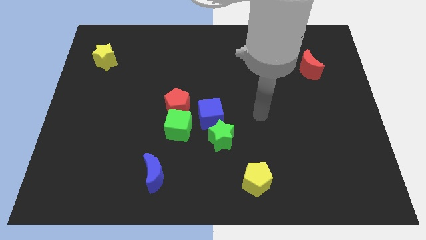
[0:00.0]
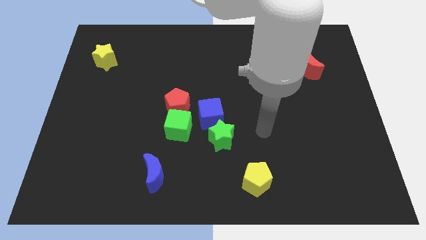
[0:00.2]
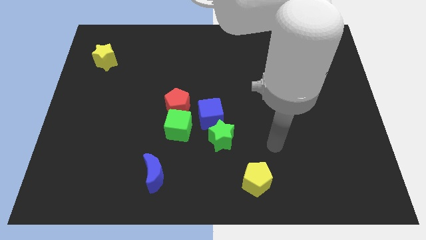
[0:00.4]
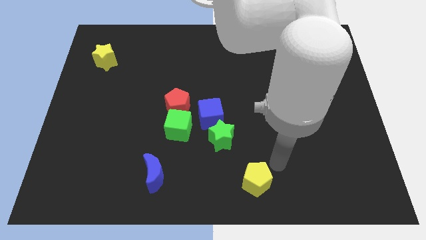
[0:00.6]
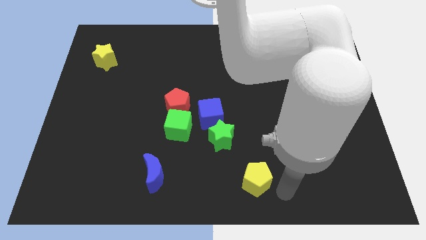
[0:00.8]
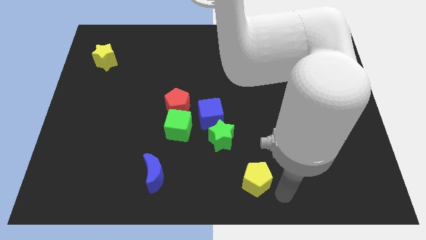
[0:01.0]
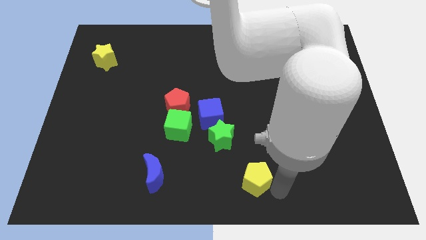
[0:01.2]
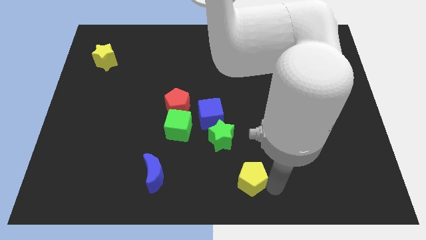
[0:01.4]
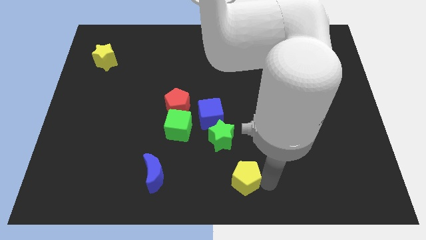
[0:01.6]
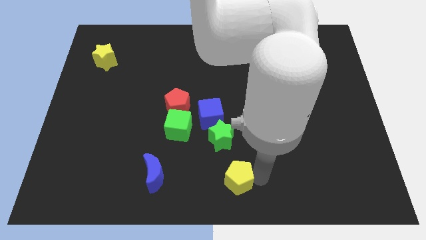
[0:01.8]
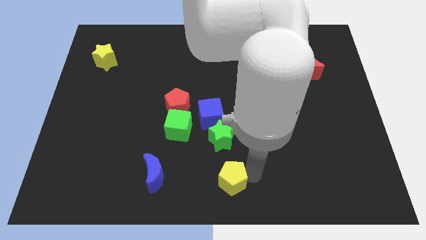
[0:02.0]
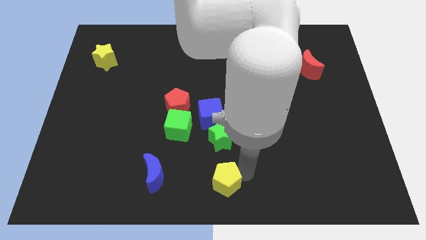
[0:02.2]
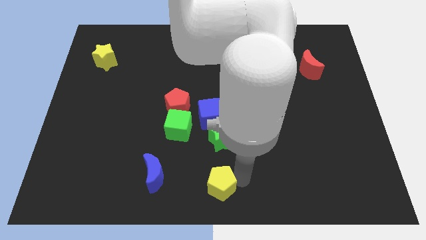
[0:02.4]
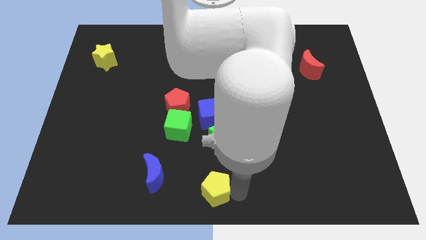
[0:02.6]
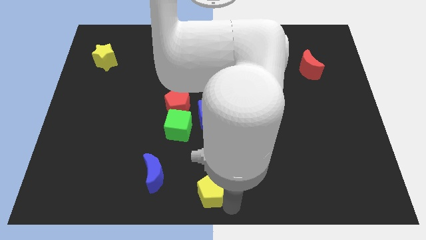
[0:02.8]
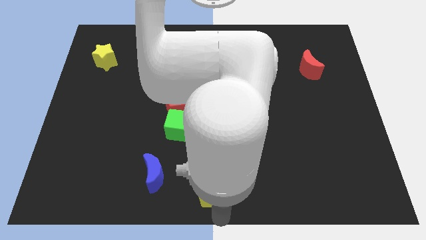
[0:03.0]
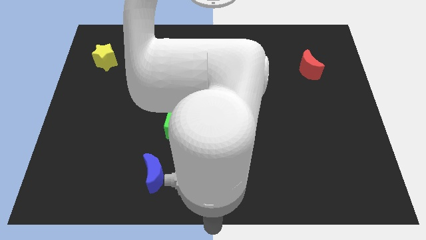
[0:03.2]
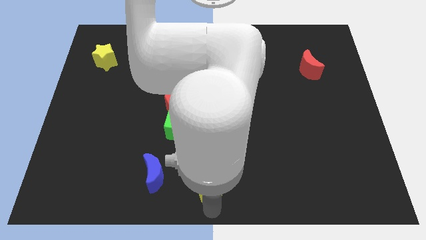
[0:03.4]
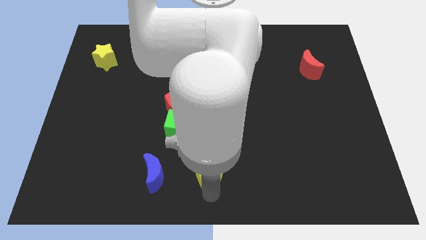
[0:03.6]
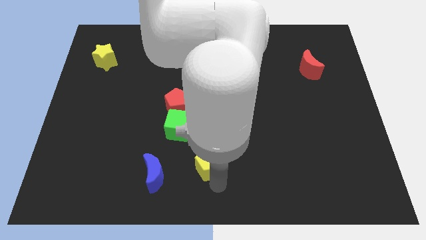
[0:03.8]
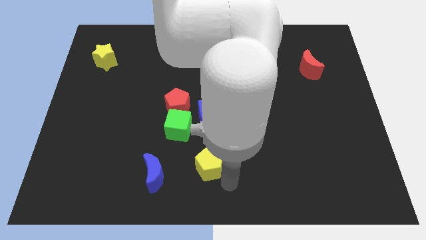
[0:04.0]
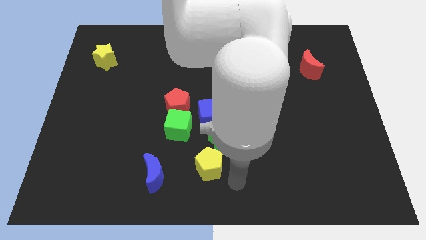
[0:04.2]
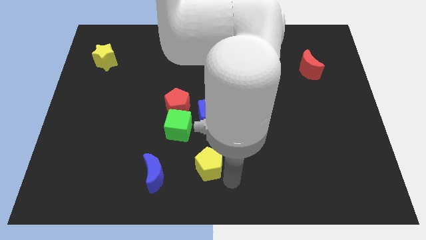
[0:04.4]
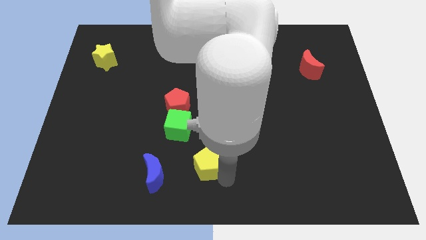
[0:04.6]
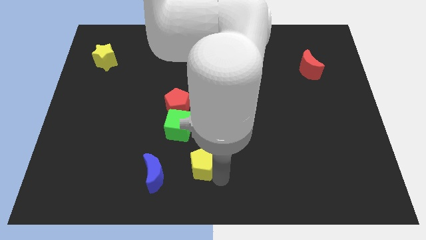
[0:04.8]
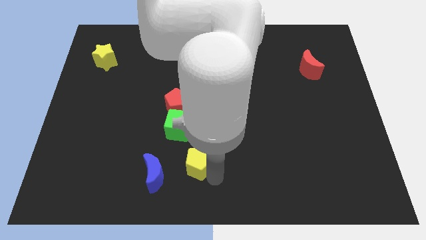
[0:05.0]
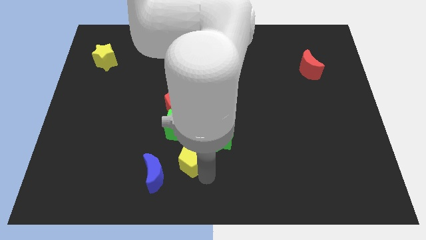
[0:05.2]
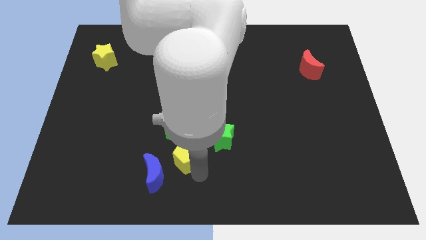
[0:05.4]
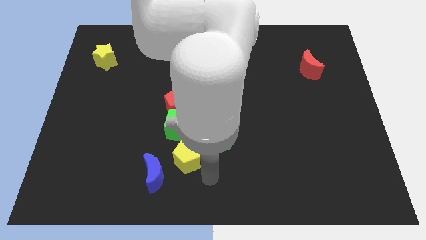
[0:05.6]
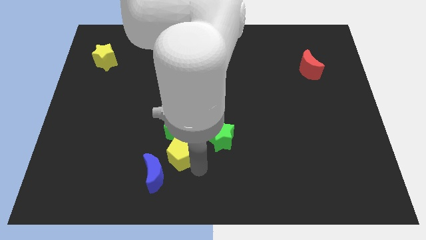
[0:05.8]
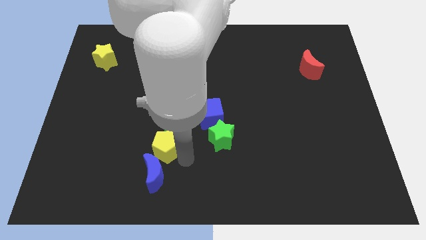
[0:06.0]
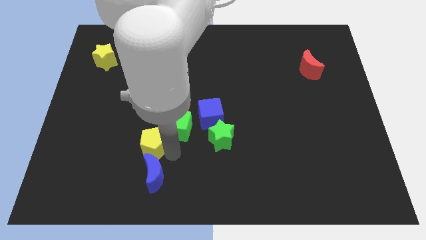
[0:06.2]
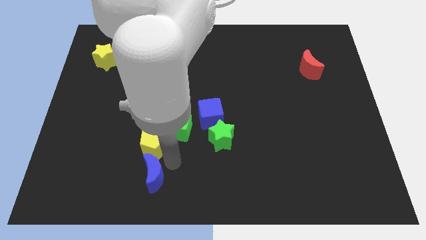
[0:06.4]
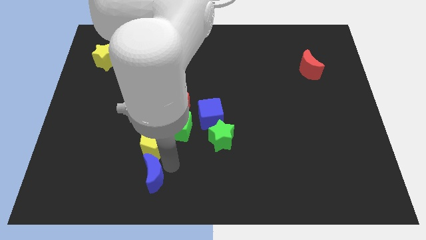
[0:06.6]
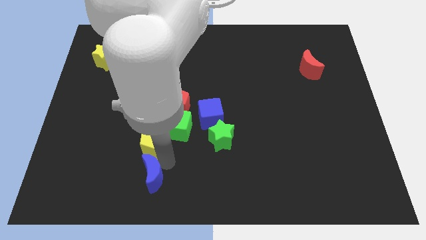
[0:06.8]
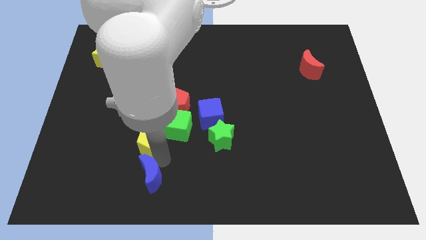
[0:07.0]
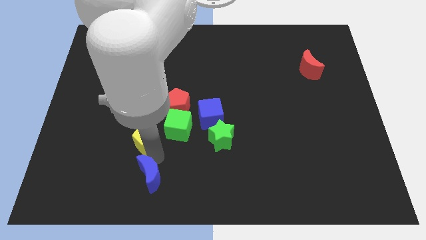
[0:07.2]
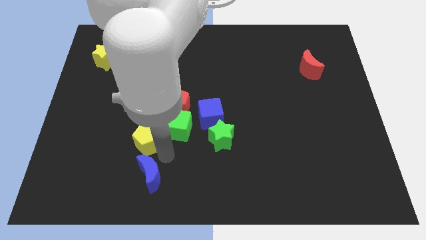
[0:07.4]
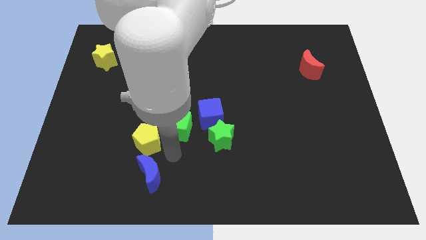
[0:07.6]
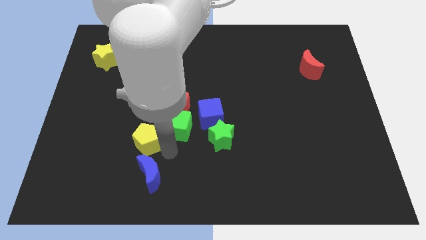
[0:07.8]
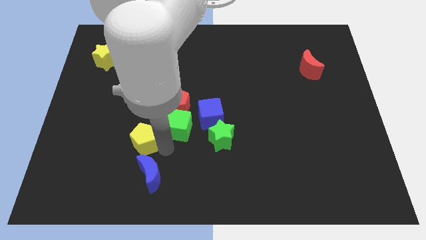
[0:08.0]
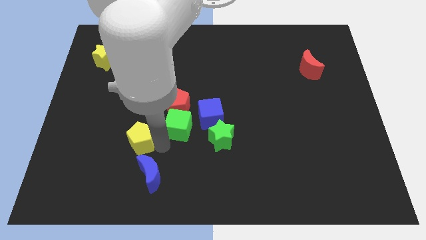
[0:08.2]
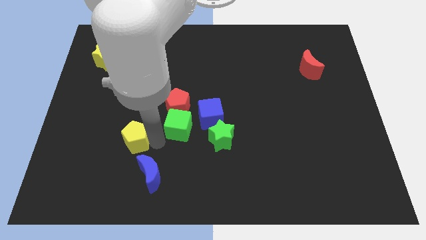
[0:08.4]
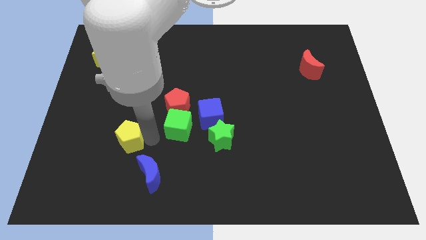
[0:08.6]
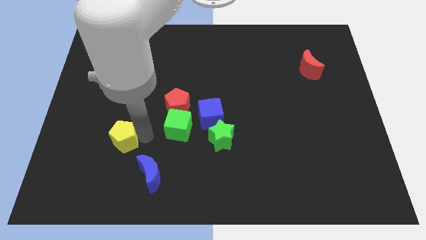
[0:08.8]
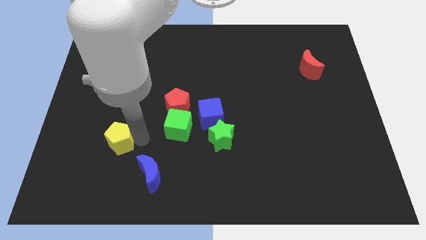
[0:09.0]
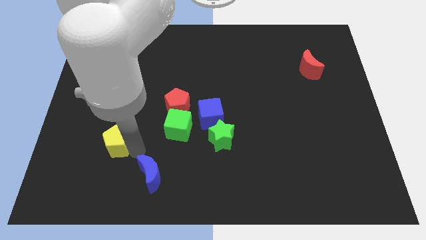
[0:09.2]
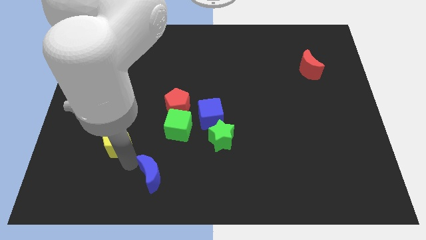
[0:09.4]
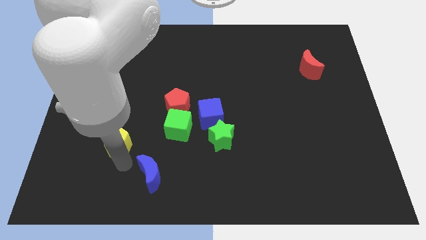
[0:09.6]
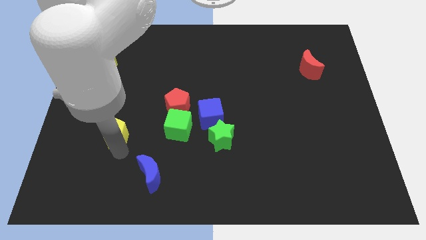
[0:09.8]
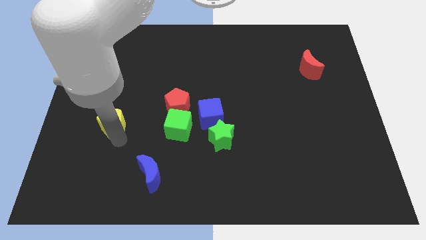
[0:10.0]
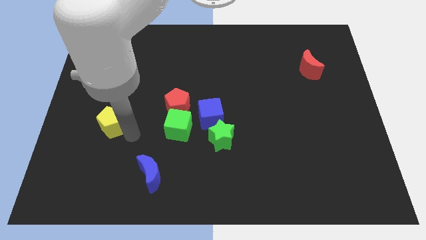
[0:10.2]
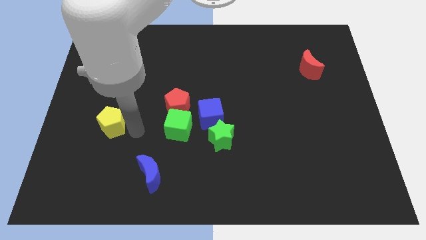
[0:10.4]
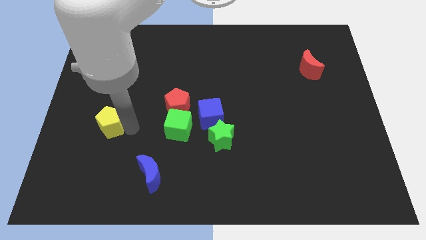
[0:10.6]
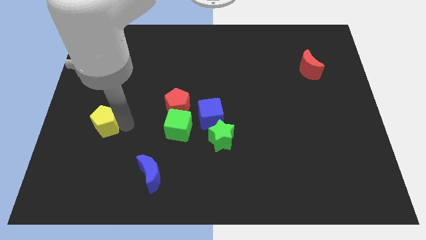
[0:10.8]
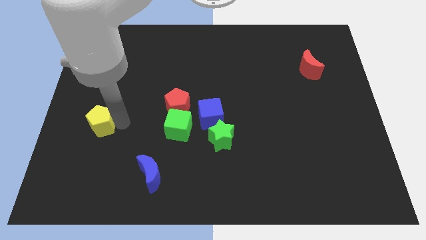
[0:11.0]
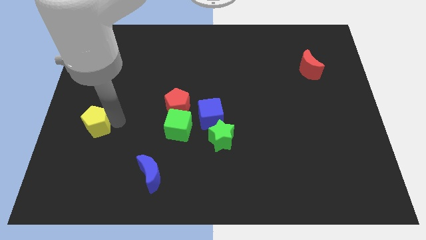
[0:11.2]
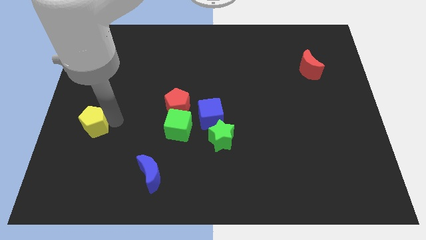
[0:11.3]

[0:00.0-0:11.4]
push the yellow pentagon to the center left

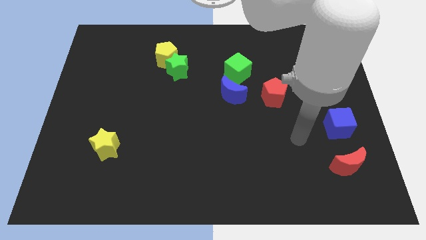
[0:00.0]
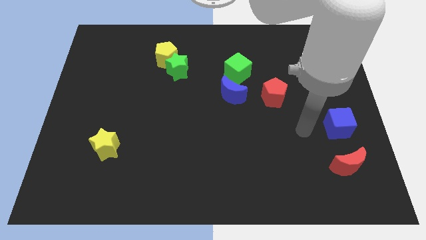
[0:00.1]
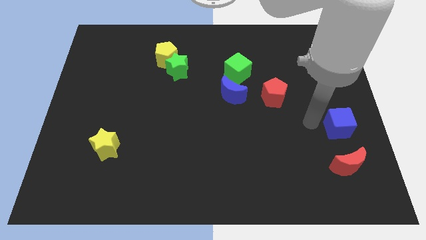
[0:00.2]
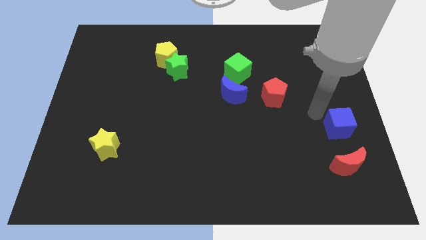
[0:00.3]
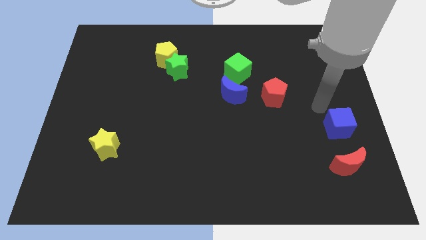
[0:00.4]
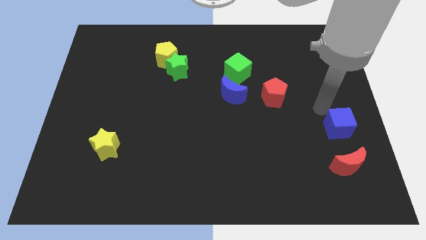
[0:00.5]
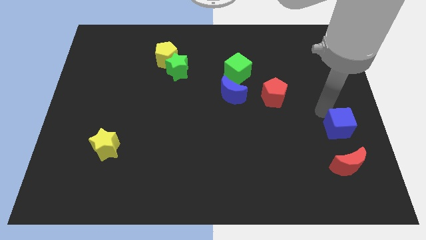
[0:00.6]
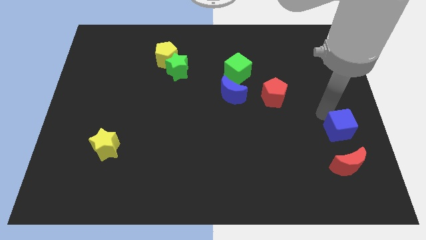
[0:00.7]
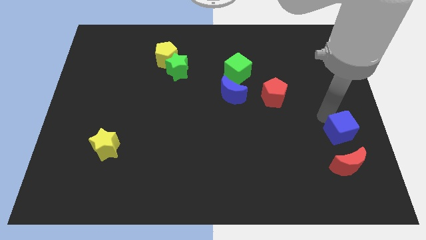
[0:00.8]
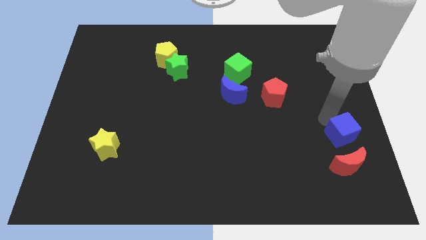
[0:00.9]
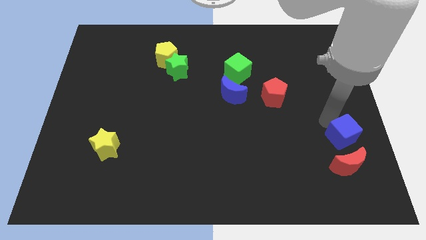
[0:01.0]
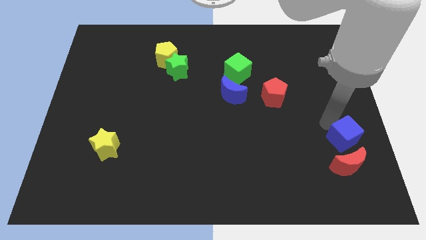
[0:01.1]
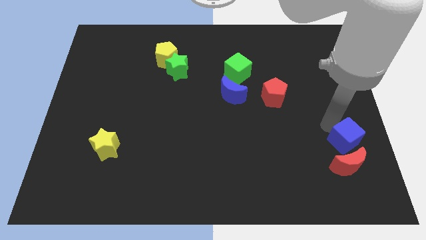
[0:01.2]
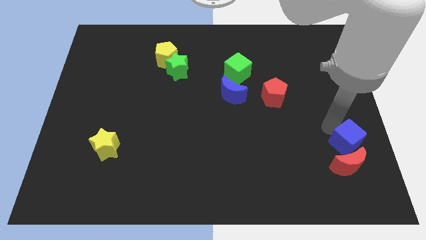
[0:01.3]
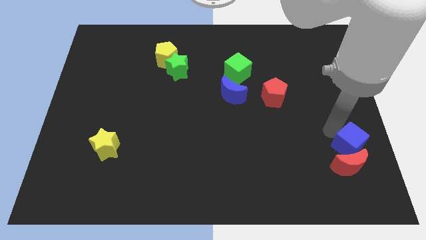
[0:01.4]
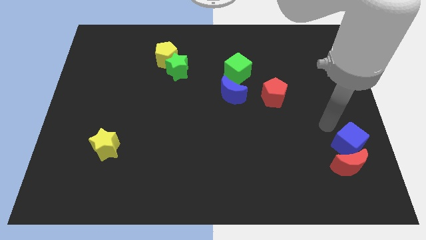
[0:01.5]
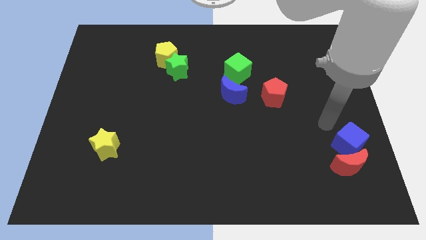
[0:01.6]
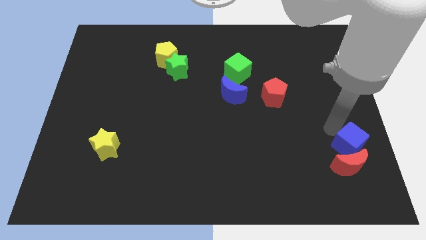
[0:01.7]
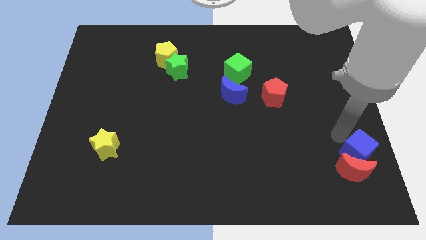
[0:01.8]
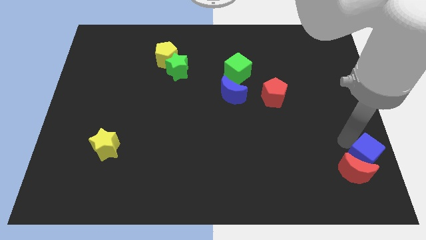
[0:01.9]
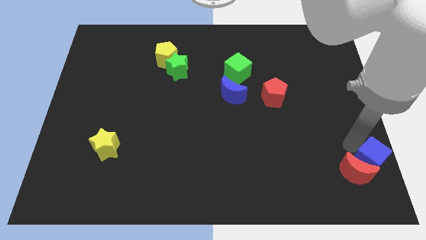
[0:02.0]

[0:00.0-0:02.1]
put the blue cube to the bottom right corner
